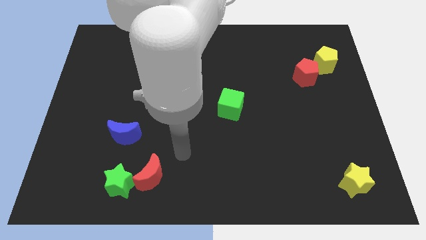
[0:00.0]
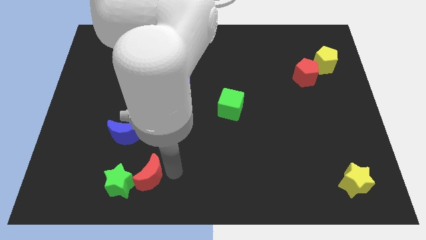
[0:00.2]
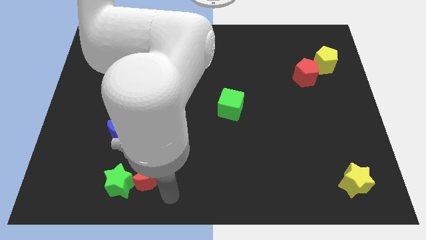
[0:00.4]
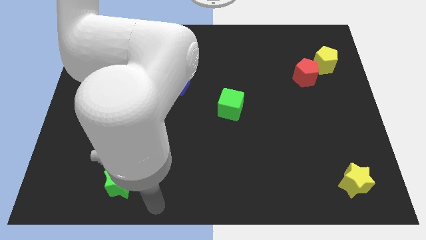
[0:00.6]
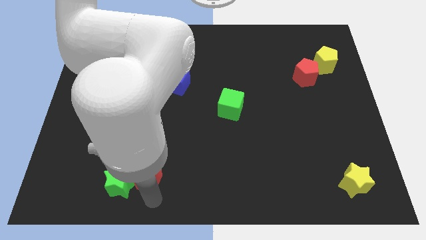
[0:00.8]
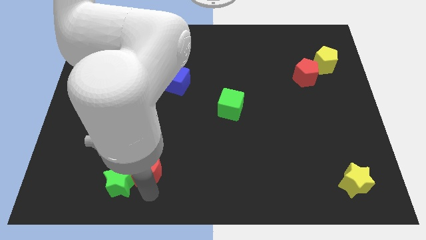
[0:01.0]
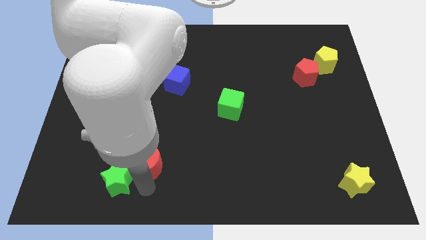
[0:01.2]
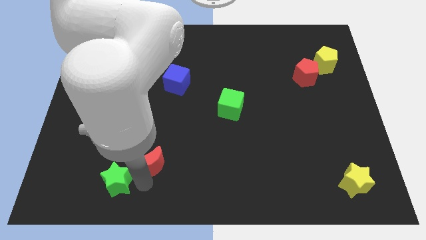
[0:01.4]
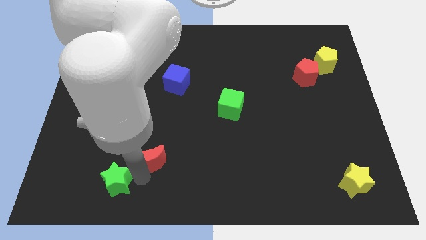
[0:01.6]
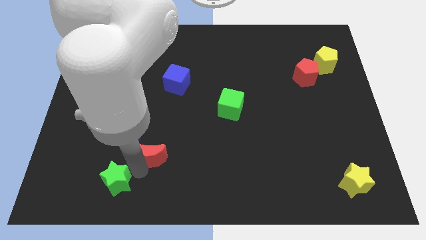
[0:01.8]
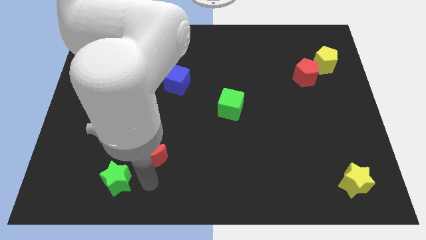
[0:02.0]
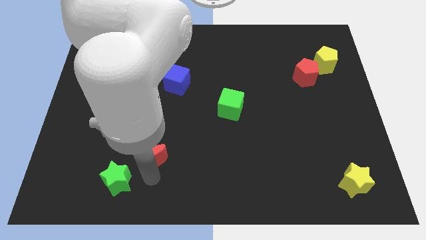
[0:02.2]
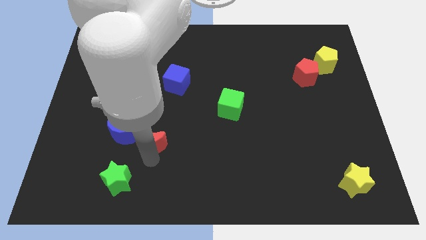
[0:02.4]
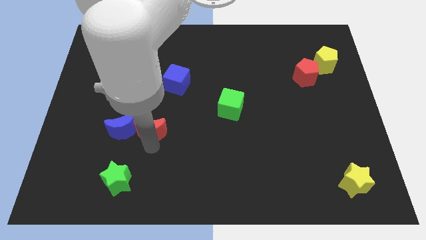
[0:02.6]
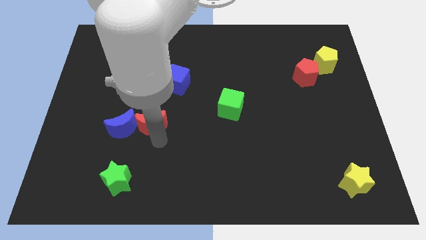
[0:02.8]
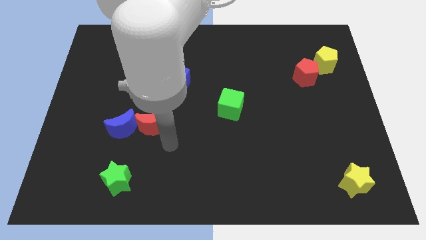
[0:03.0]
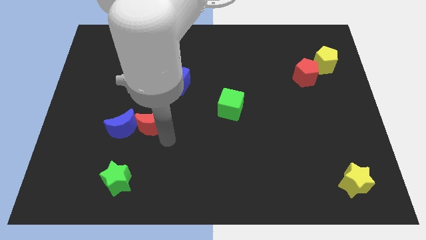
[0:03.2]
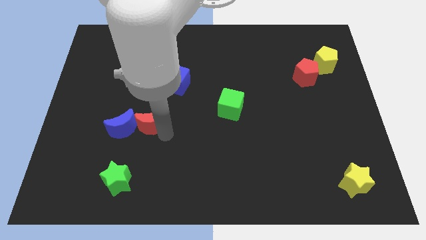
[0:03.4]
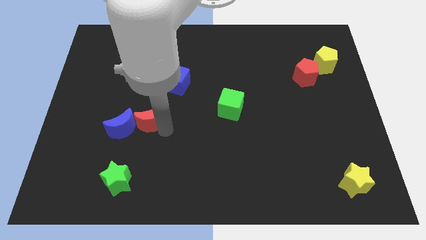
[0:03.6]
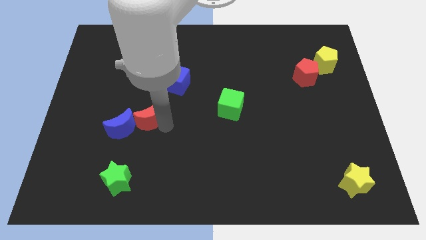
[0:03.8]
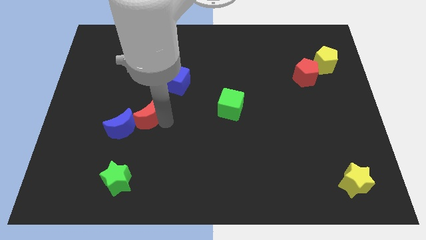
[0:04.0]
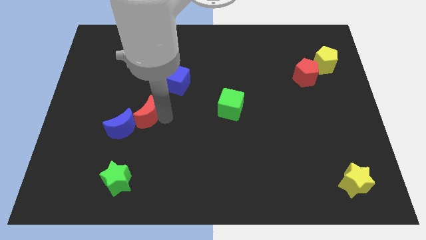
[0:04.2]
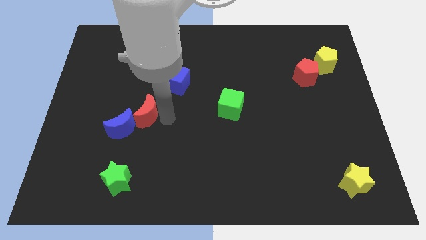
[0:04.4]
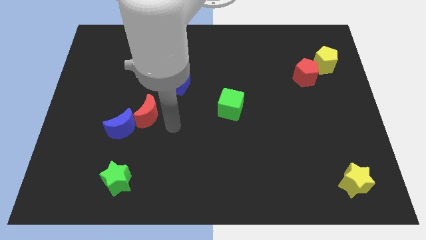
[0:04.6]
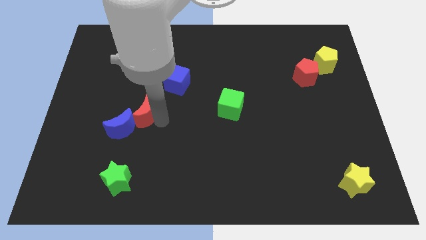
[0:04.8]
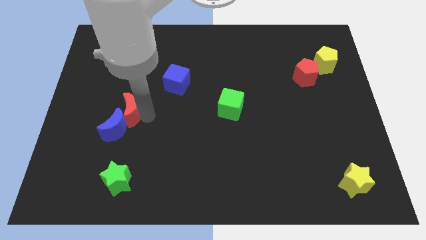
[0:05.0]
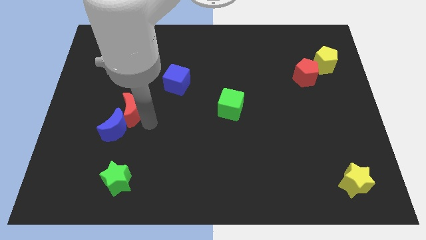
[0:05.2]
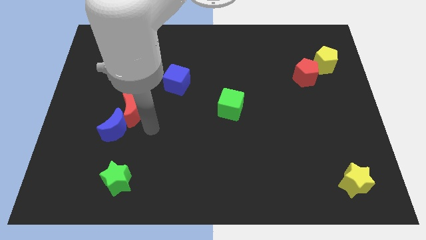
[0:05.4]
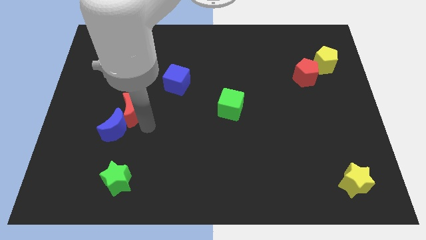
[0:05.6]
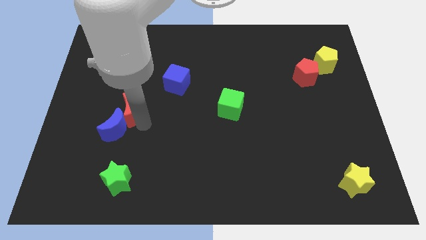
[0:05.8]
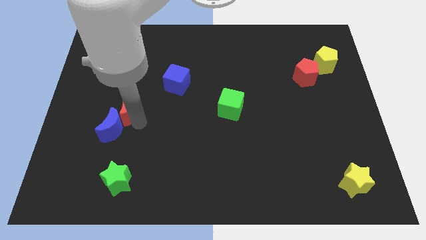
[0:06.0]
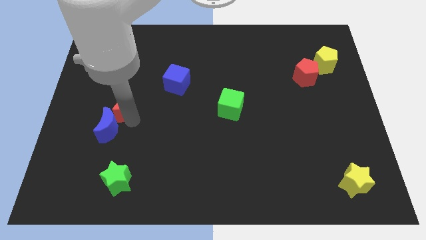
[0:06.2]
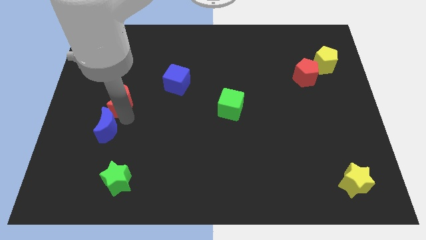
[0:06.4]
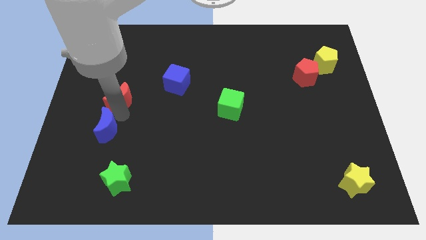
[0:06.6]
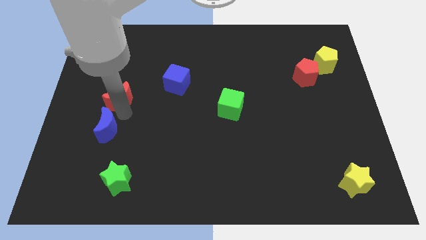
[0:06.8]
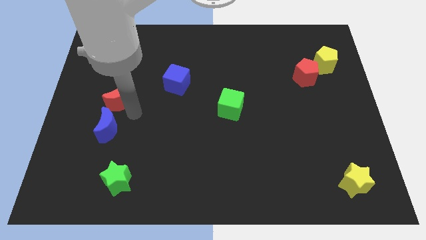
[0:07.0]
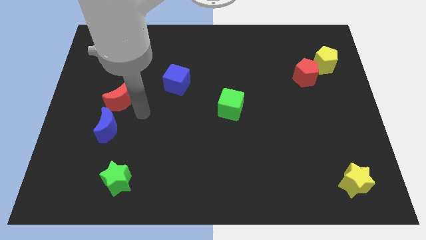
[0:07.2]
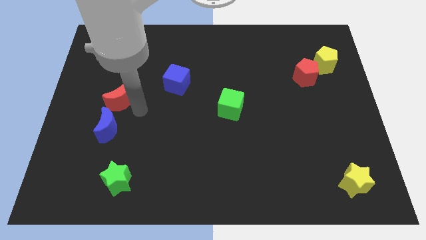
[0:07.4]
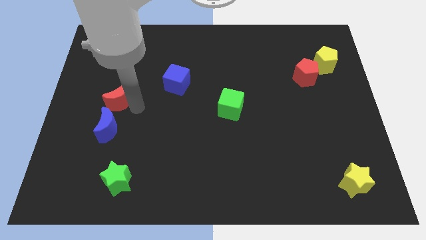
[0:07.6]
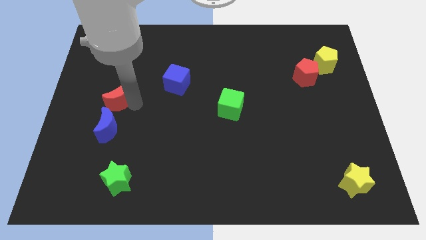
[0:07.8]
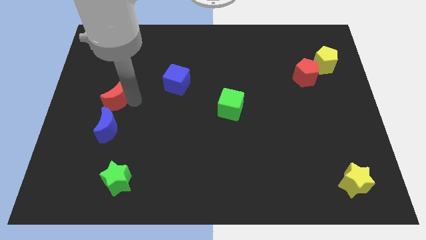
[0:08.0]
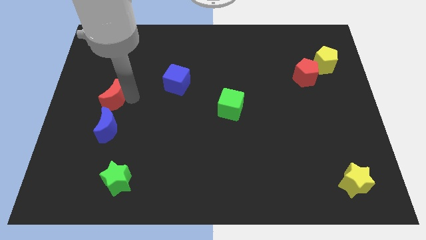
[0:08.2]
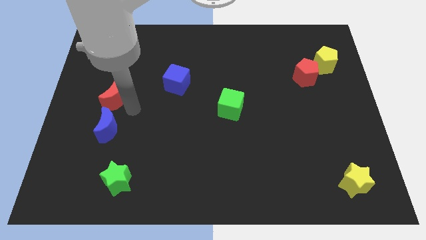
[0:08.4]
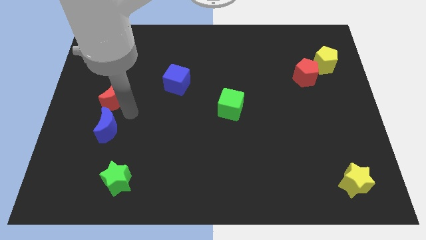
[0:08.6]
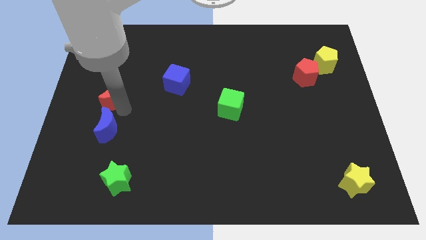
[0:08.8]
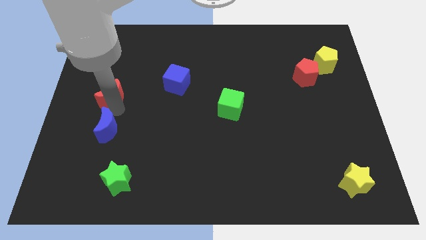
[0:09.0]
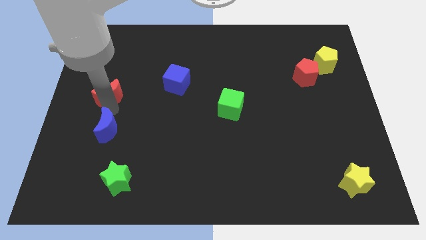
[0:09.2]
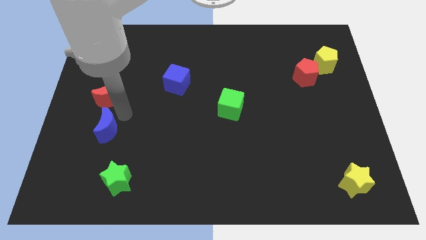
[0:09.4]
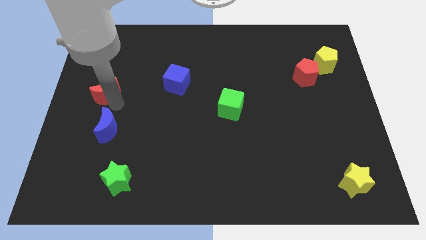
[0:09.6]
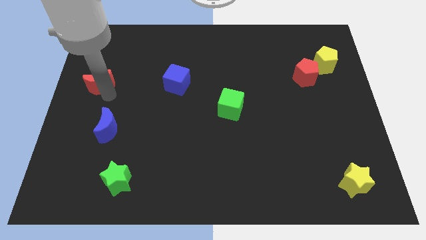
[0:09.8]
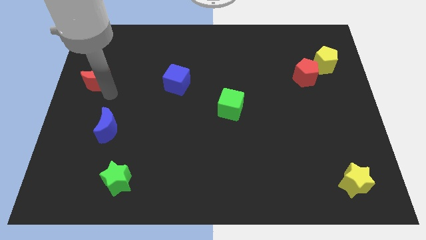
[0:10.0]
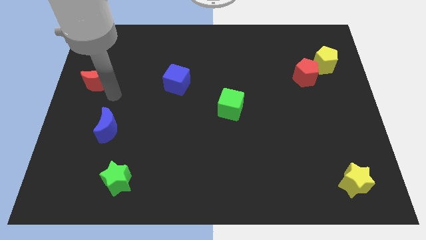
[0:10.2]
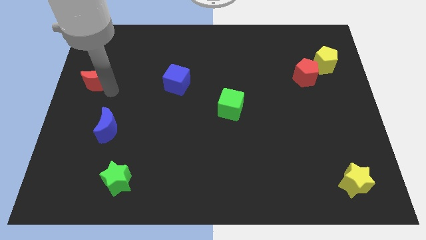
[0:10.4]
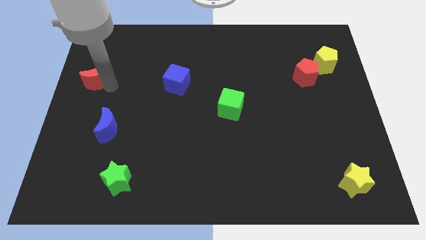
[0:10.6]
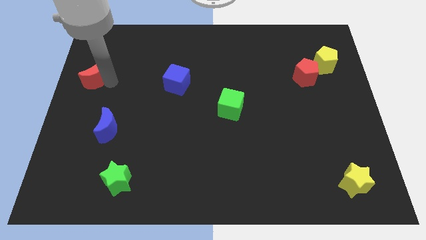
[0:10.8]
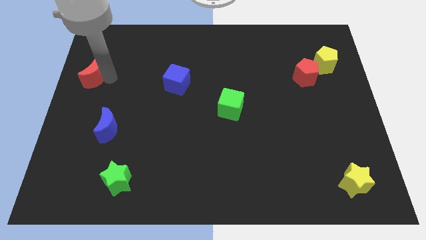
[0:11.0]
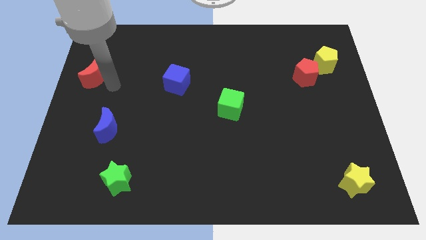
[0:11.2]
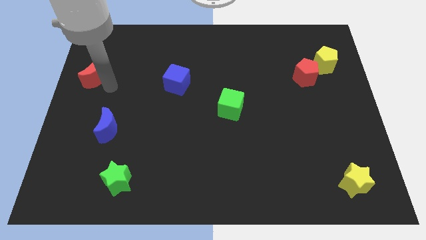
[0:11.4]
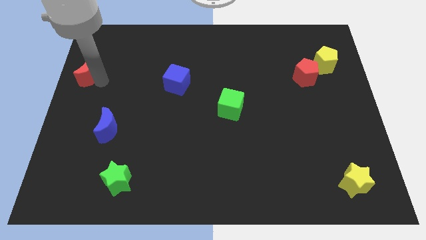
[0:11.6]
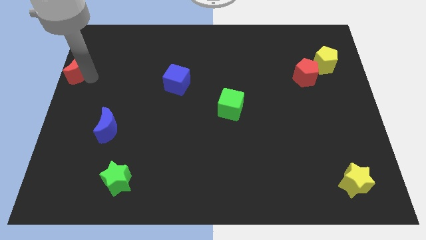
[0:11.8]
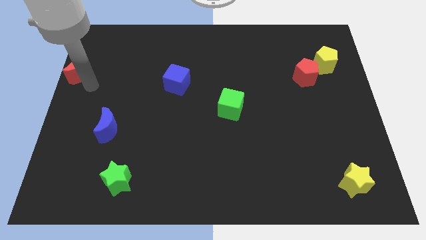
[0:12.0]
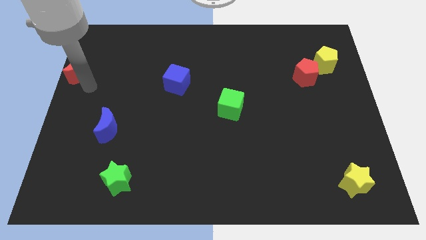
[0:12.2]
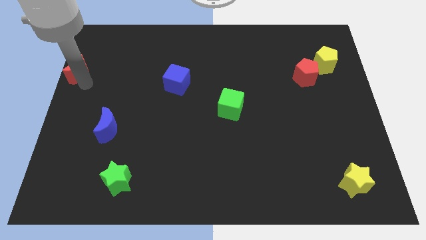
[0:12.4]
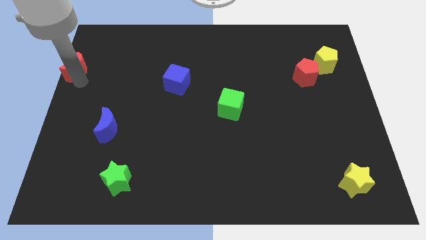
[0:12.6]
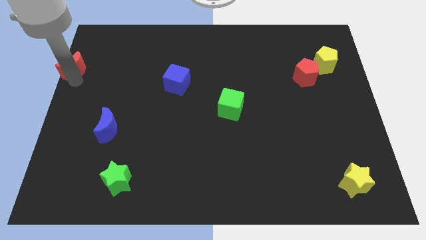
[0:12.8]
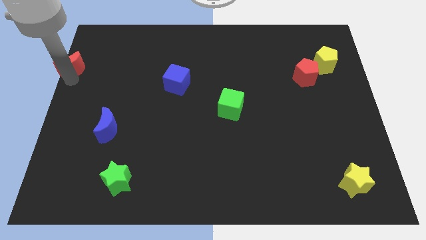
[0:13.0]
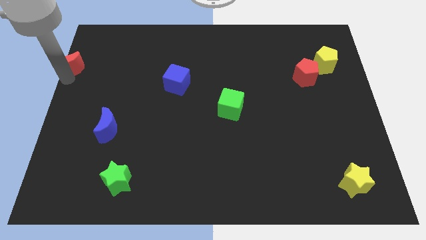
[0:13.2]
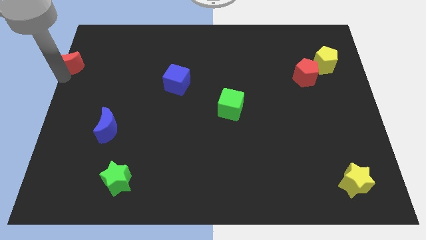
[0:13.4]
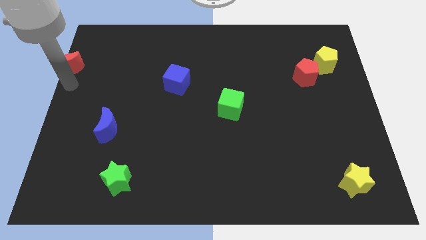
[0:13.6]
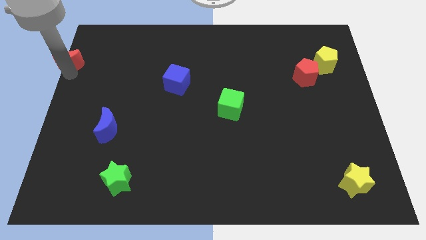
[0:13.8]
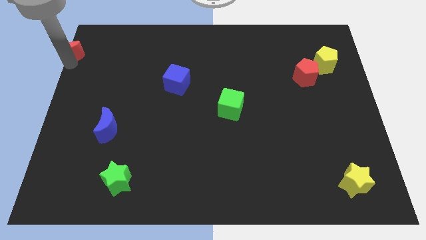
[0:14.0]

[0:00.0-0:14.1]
push the red moon to the upper left corner
